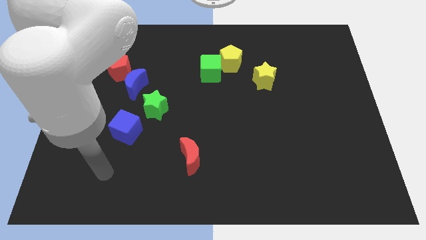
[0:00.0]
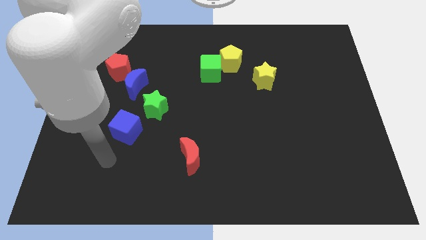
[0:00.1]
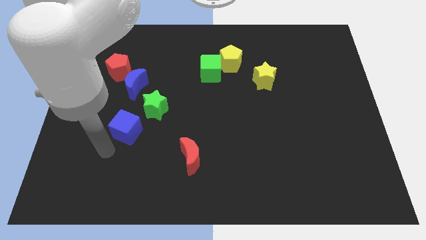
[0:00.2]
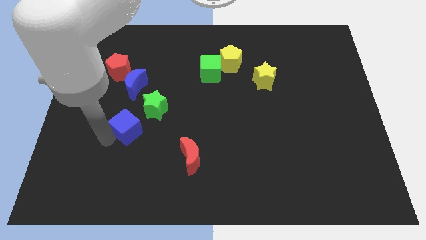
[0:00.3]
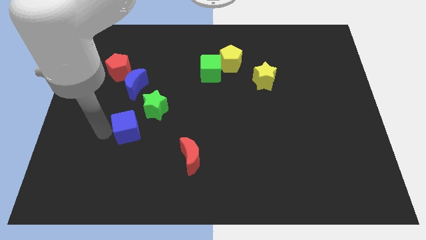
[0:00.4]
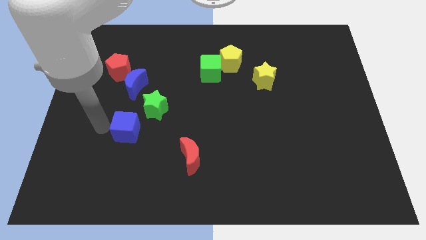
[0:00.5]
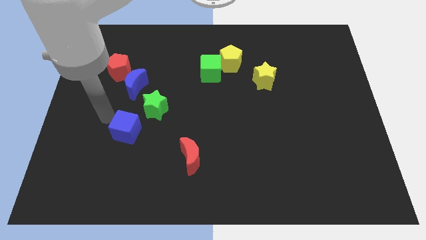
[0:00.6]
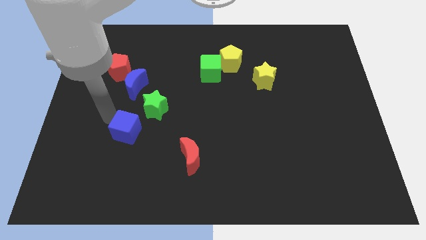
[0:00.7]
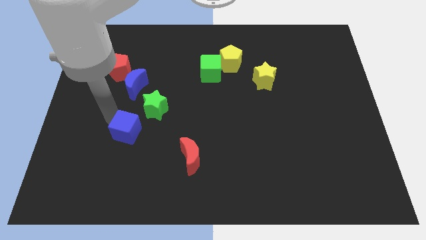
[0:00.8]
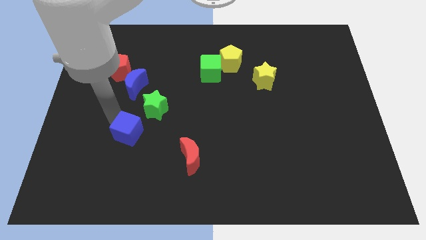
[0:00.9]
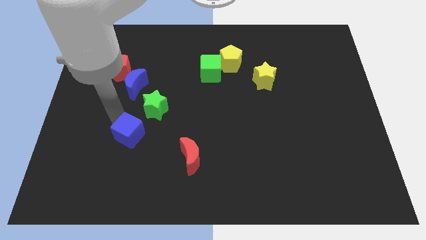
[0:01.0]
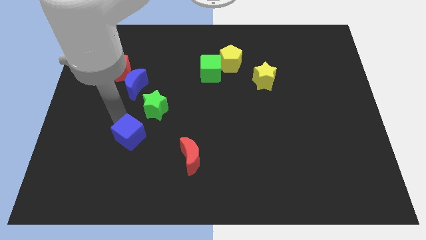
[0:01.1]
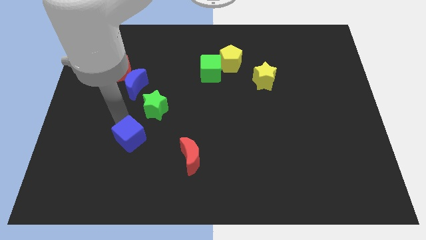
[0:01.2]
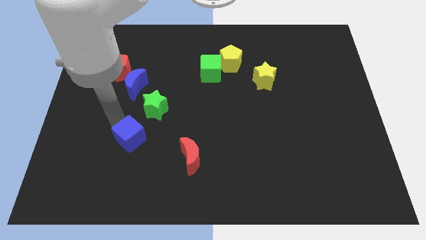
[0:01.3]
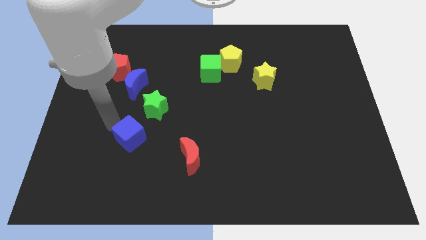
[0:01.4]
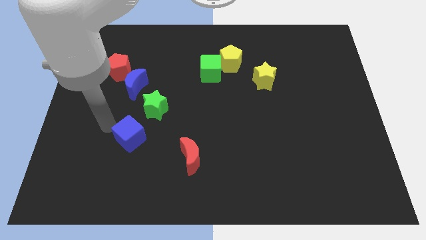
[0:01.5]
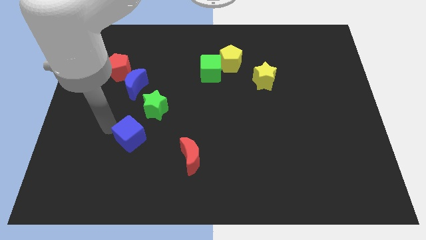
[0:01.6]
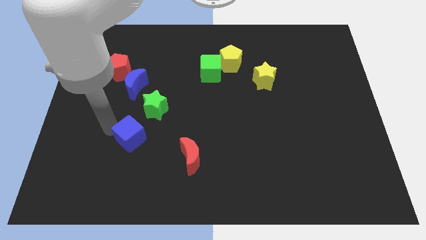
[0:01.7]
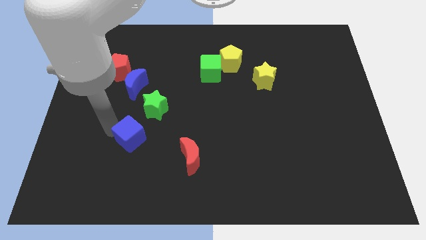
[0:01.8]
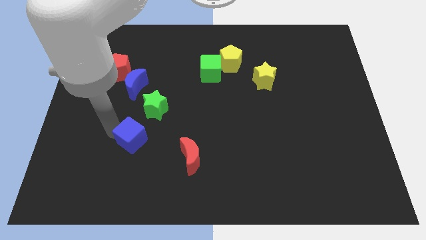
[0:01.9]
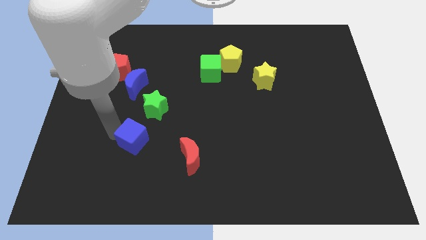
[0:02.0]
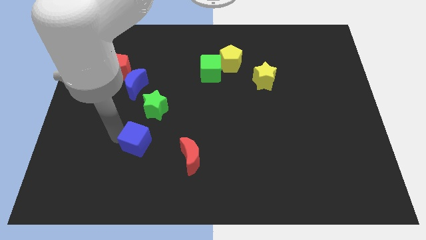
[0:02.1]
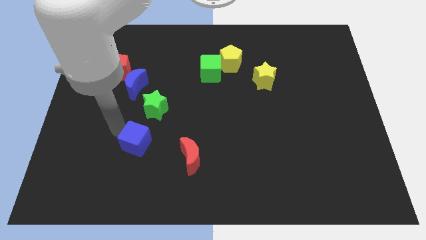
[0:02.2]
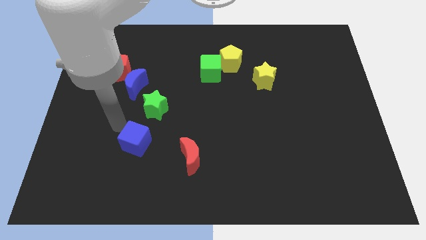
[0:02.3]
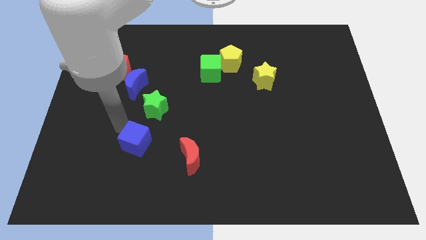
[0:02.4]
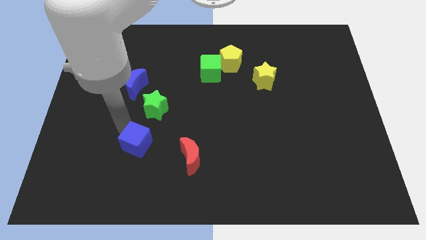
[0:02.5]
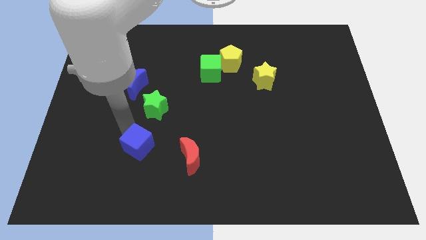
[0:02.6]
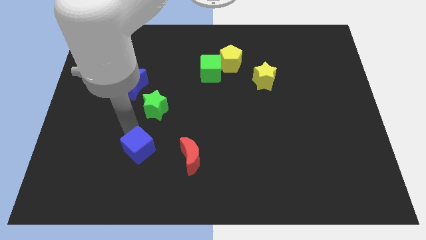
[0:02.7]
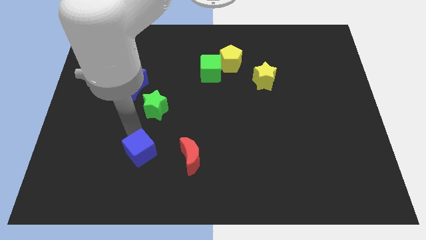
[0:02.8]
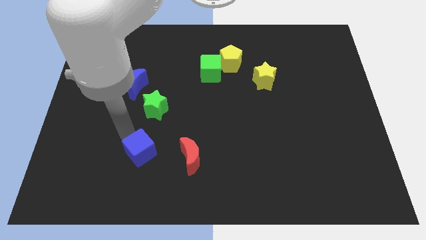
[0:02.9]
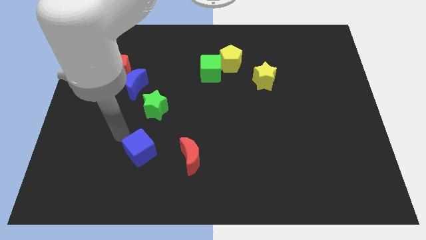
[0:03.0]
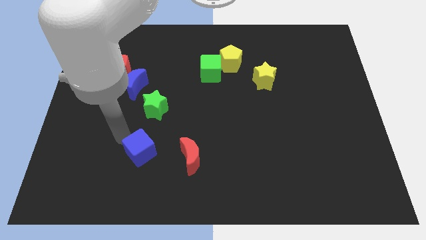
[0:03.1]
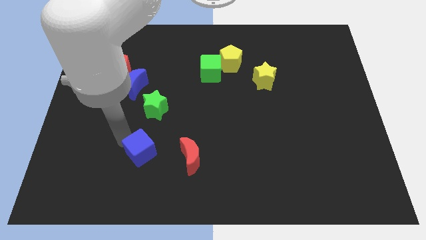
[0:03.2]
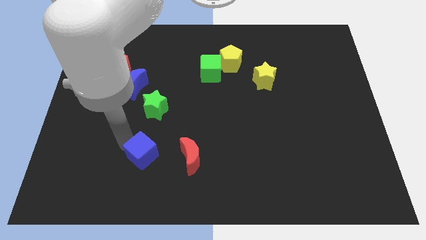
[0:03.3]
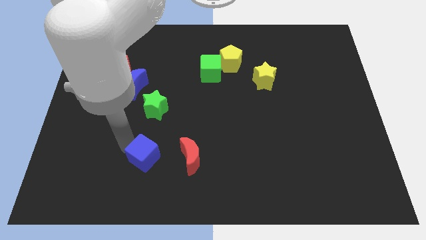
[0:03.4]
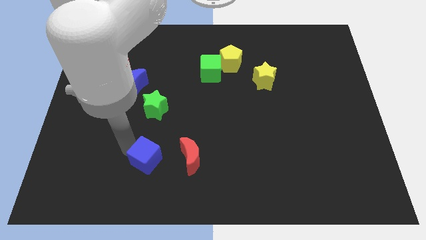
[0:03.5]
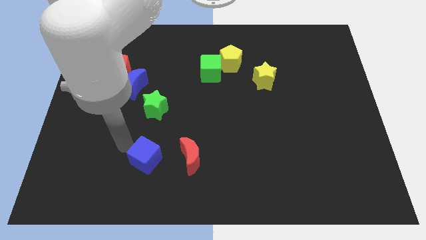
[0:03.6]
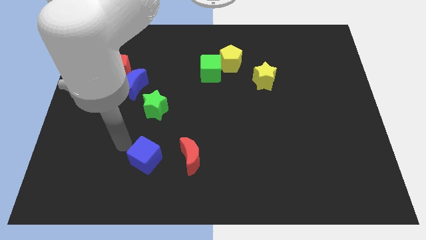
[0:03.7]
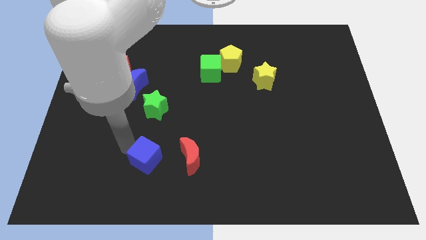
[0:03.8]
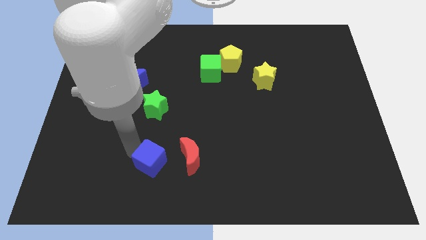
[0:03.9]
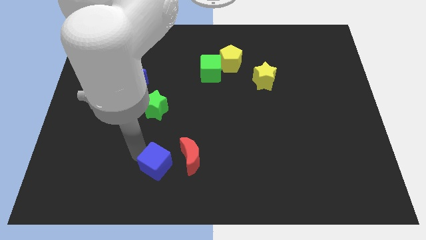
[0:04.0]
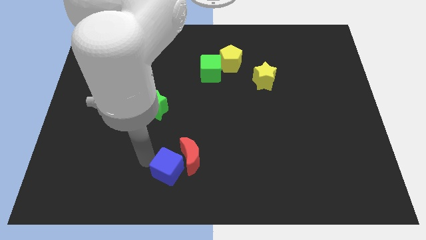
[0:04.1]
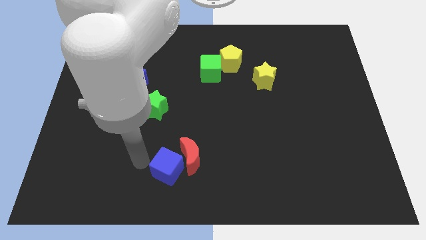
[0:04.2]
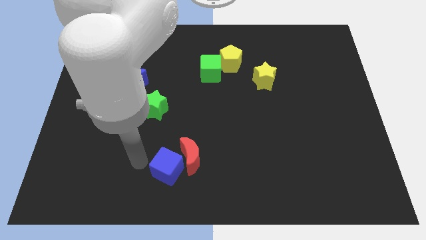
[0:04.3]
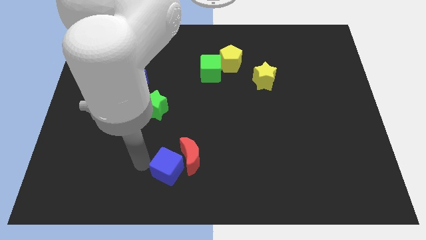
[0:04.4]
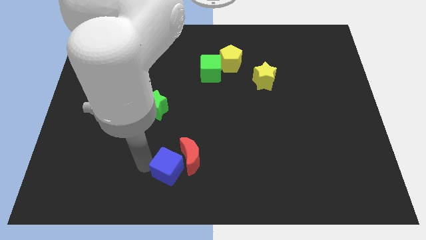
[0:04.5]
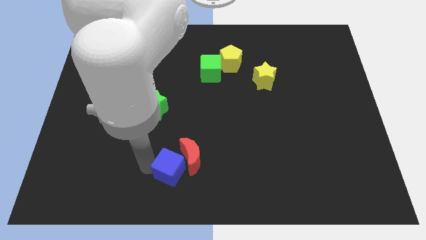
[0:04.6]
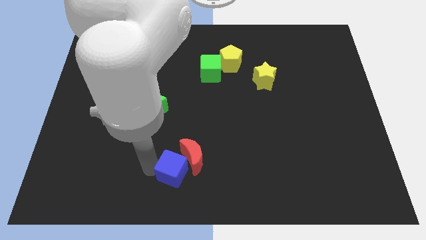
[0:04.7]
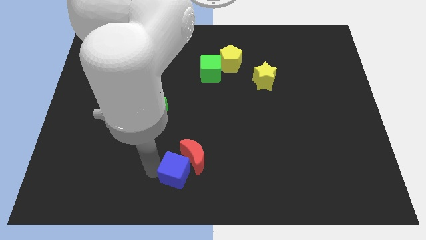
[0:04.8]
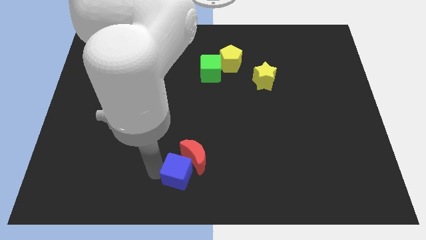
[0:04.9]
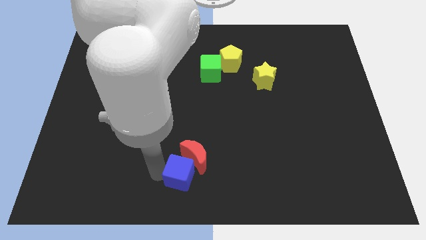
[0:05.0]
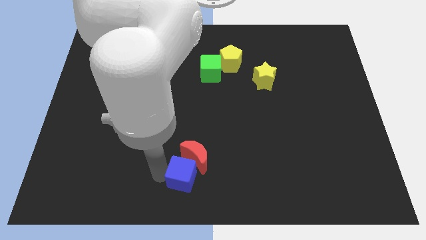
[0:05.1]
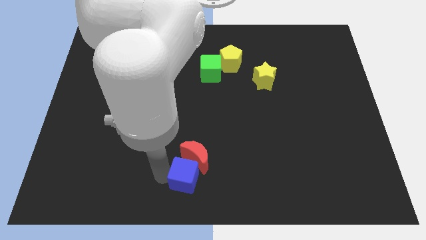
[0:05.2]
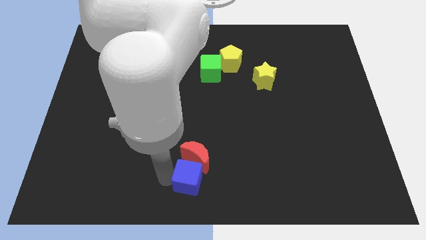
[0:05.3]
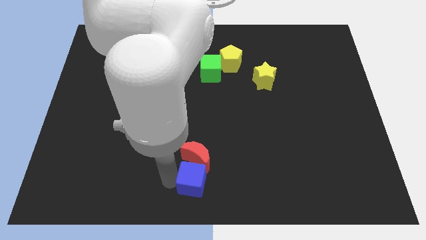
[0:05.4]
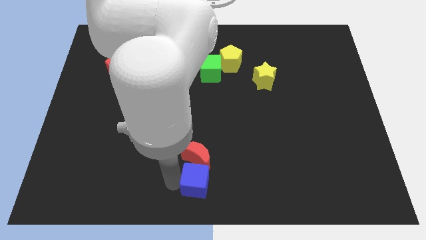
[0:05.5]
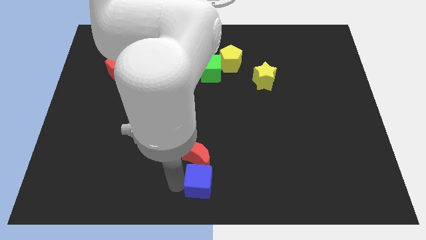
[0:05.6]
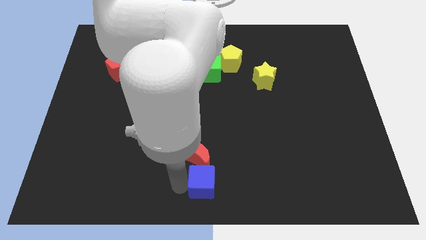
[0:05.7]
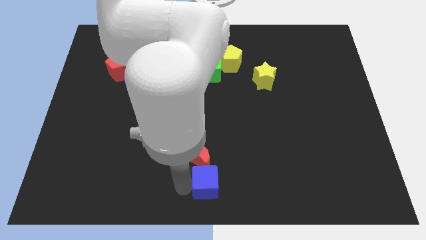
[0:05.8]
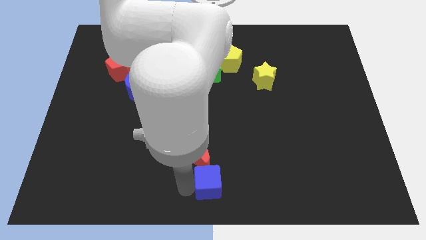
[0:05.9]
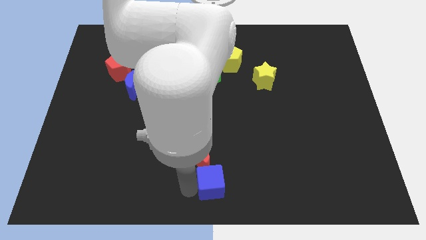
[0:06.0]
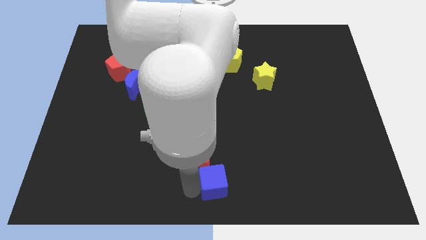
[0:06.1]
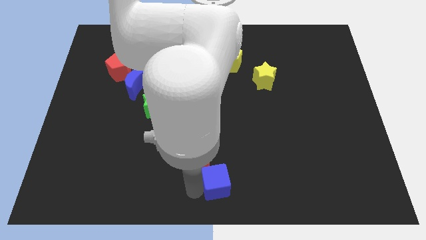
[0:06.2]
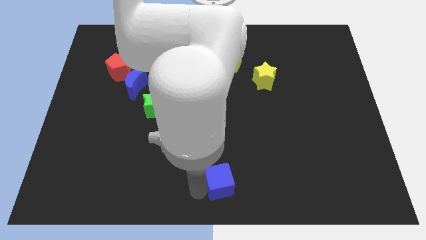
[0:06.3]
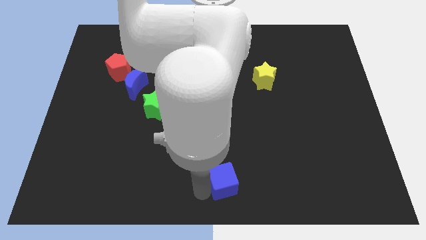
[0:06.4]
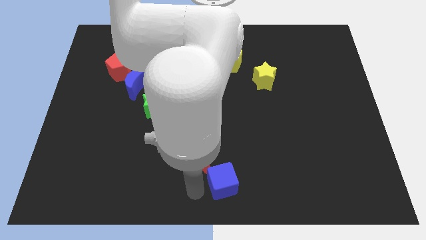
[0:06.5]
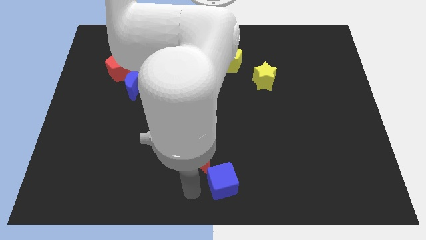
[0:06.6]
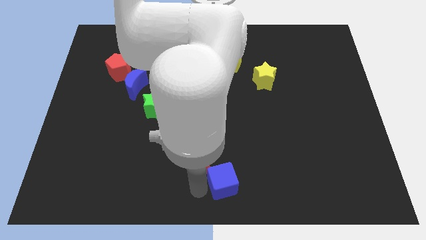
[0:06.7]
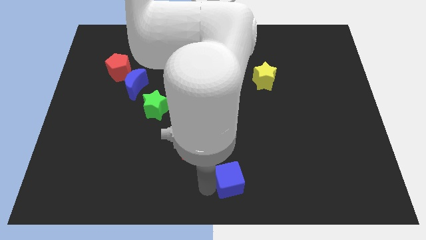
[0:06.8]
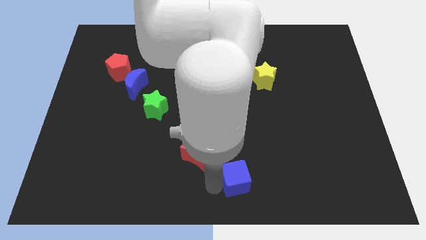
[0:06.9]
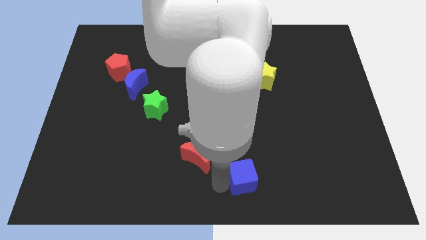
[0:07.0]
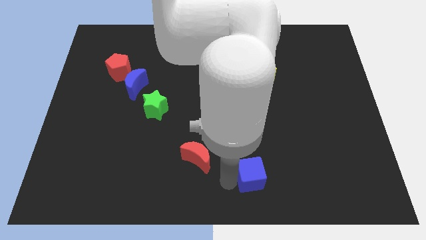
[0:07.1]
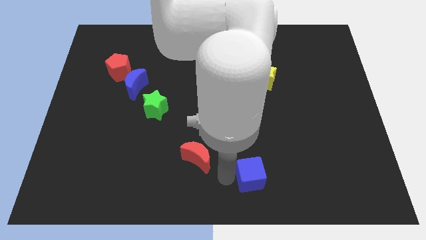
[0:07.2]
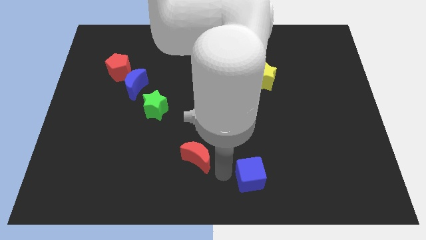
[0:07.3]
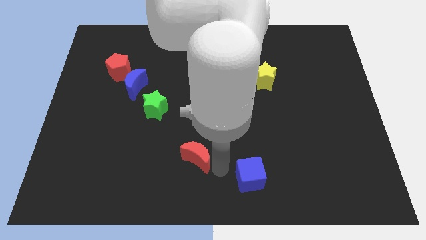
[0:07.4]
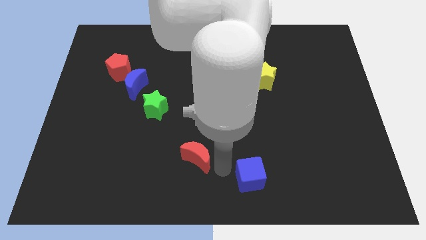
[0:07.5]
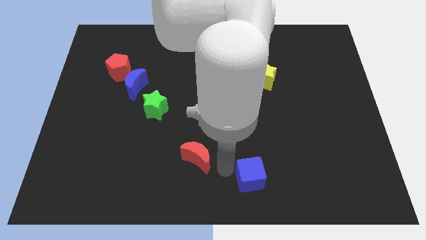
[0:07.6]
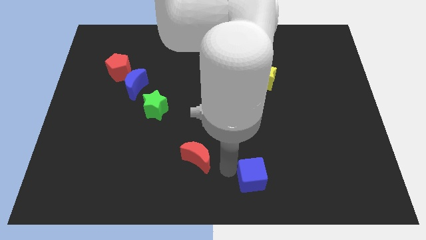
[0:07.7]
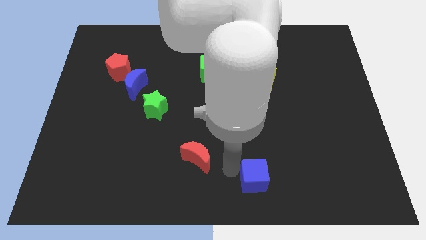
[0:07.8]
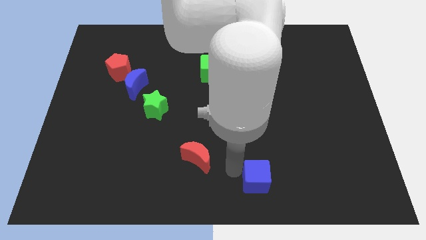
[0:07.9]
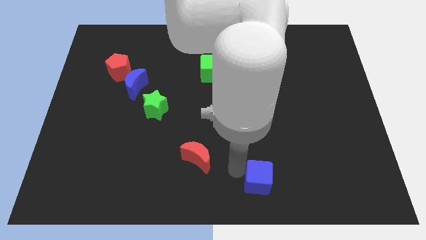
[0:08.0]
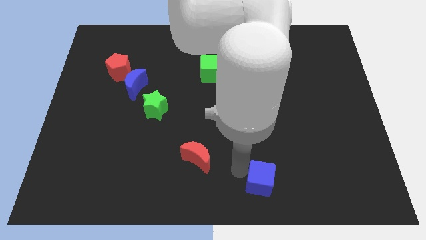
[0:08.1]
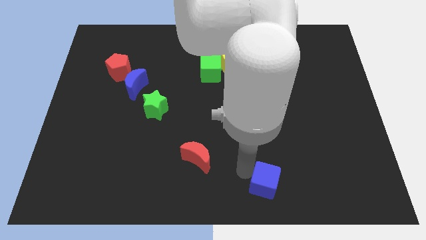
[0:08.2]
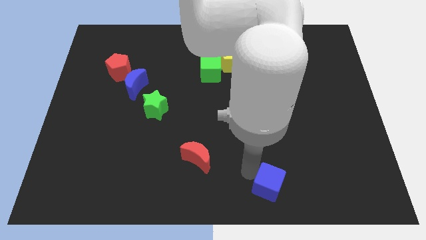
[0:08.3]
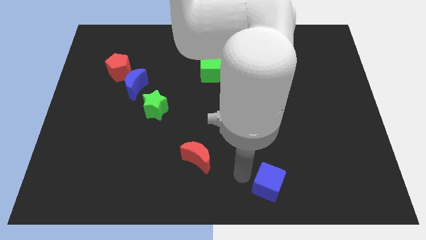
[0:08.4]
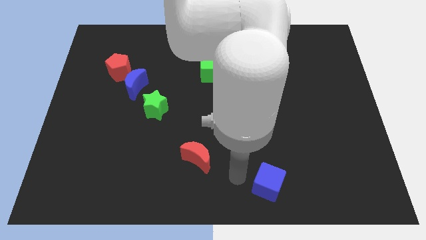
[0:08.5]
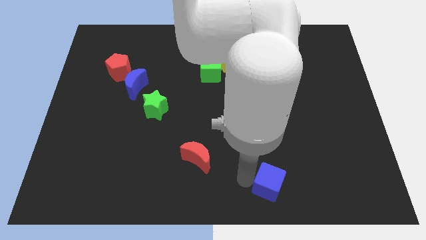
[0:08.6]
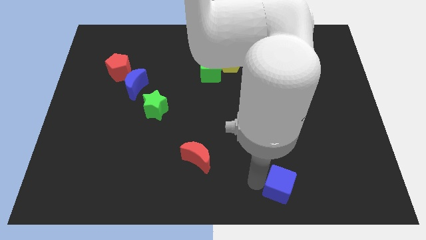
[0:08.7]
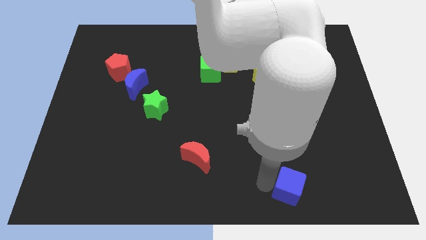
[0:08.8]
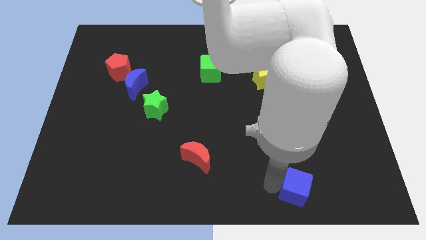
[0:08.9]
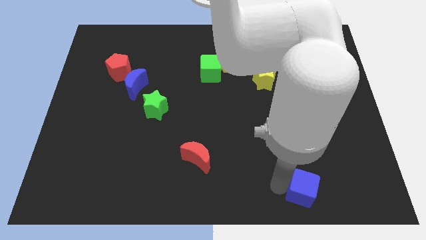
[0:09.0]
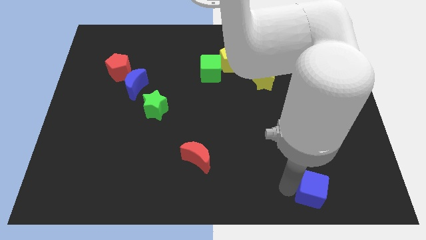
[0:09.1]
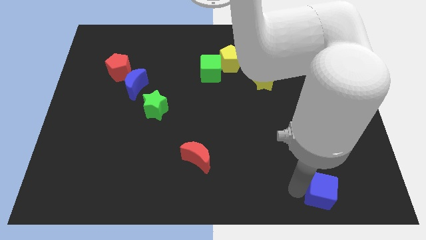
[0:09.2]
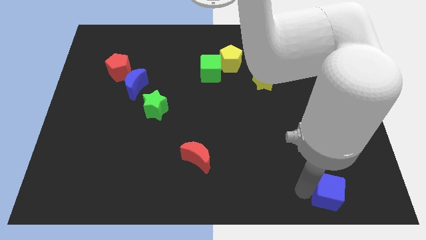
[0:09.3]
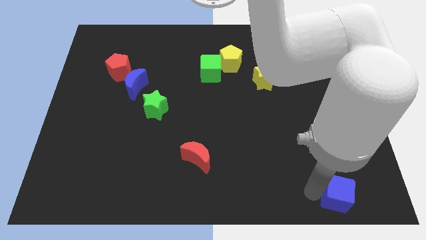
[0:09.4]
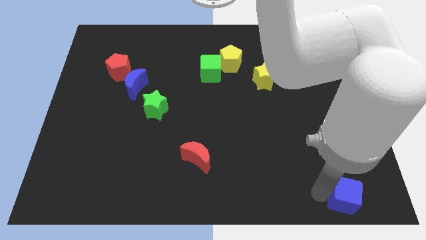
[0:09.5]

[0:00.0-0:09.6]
push the blue cube to the lower right corner
